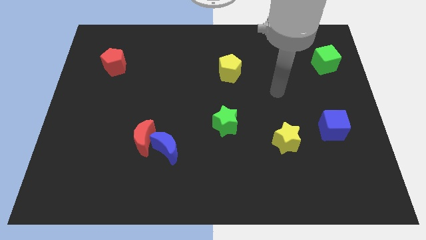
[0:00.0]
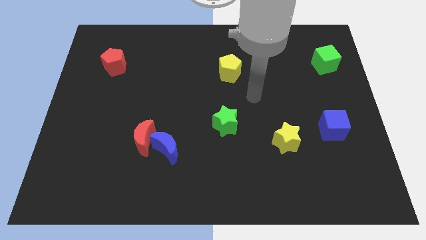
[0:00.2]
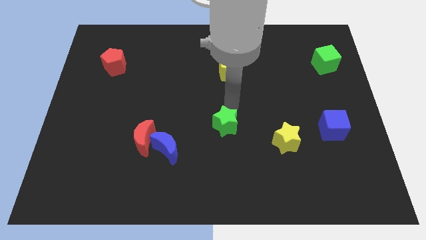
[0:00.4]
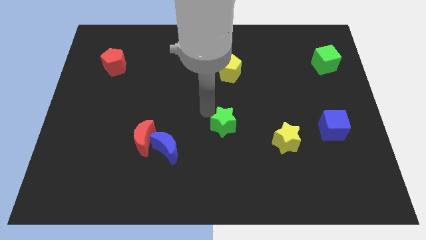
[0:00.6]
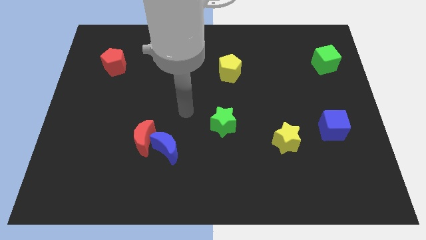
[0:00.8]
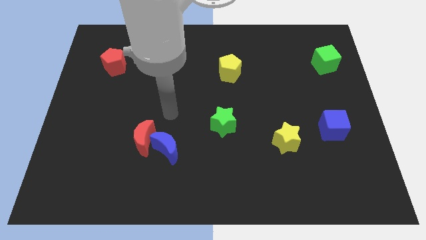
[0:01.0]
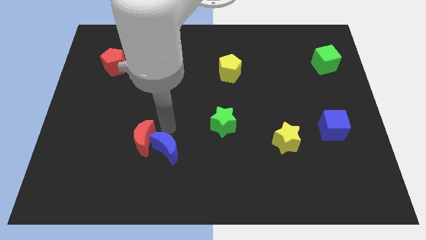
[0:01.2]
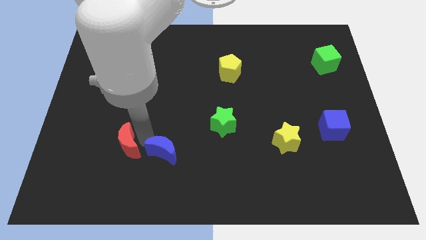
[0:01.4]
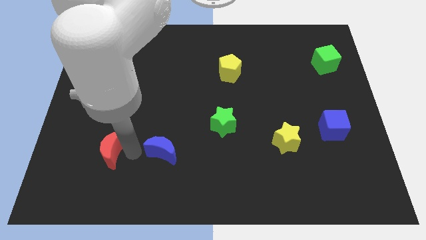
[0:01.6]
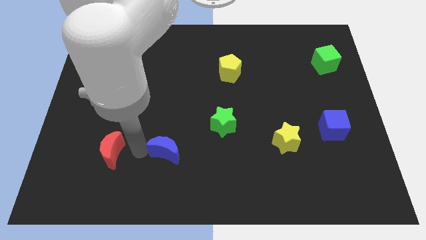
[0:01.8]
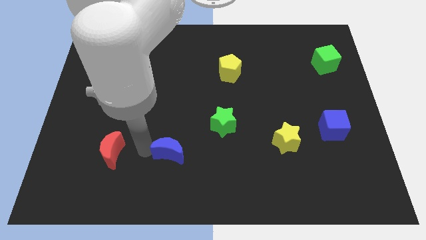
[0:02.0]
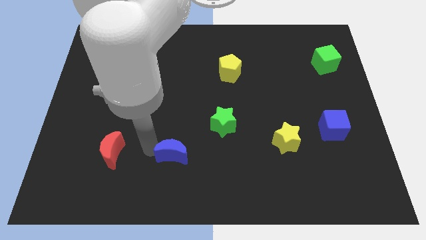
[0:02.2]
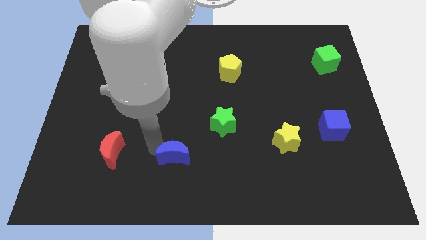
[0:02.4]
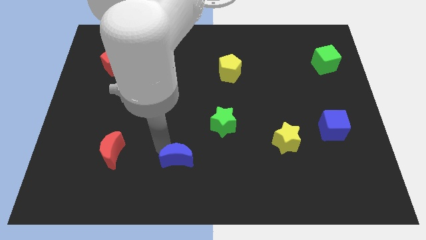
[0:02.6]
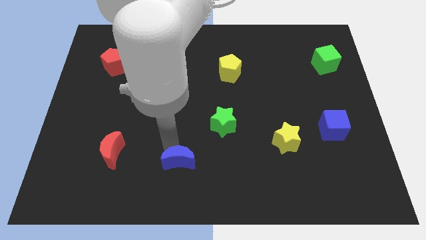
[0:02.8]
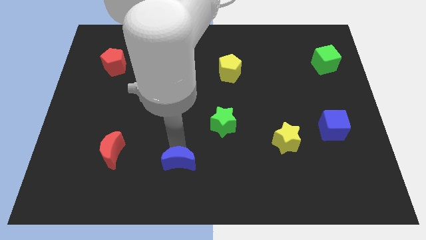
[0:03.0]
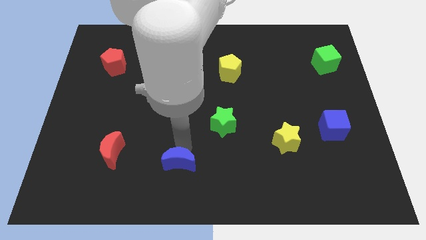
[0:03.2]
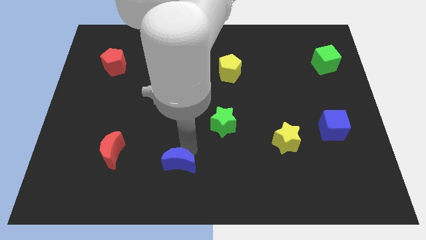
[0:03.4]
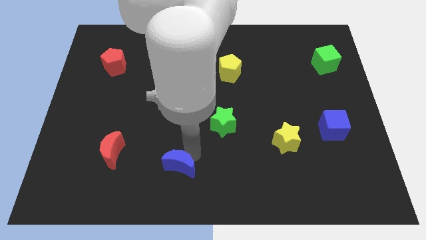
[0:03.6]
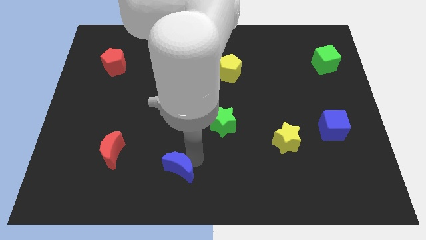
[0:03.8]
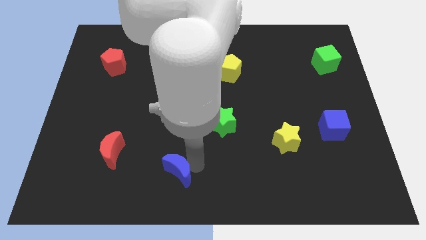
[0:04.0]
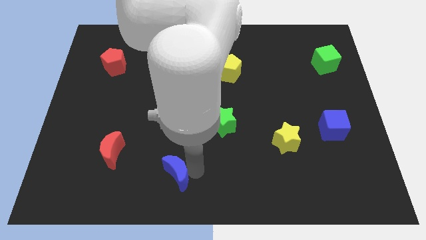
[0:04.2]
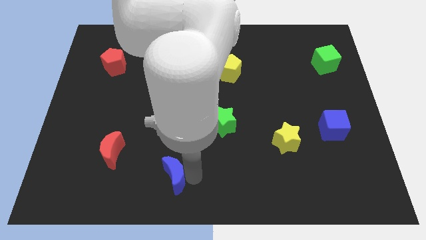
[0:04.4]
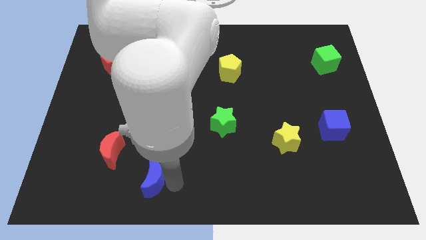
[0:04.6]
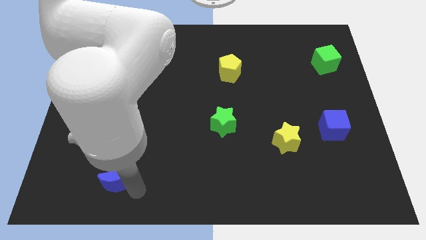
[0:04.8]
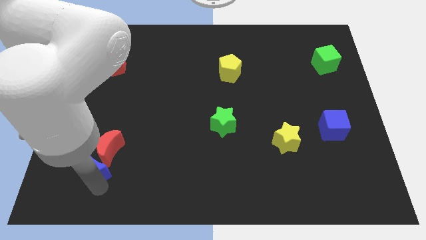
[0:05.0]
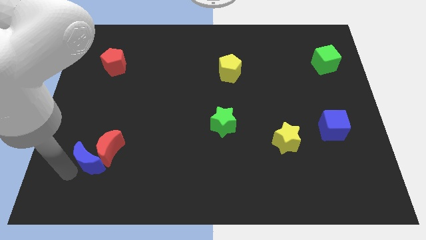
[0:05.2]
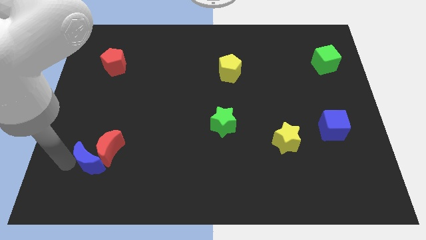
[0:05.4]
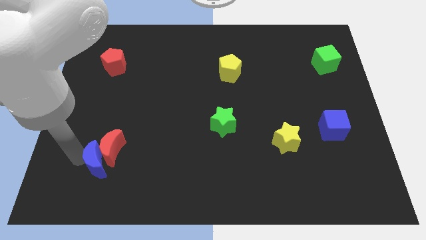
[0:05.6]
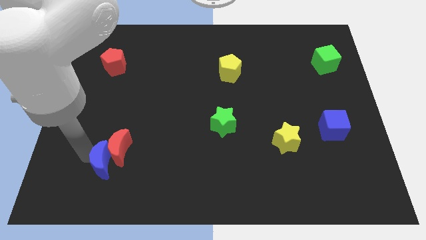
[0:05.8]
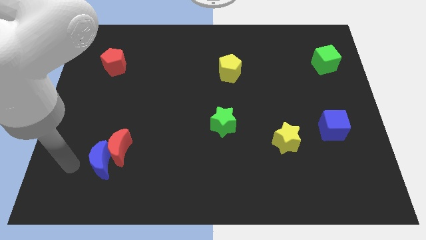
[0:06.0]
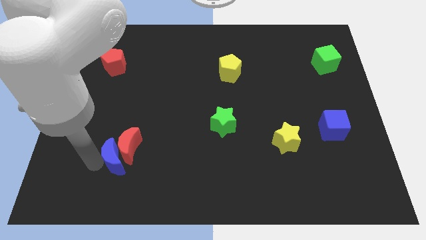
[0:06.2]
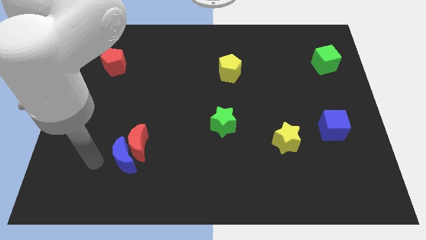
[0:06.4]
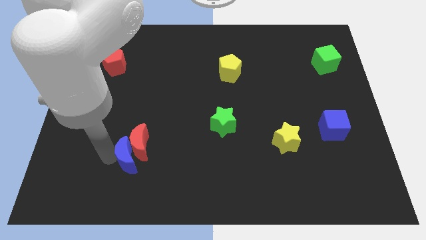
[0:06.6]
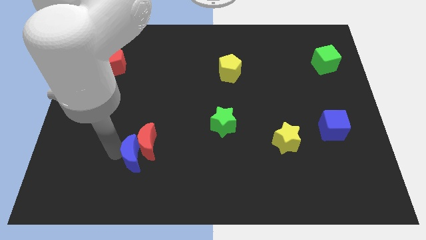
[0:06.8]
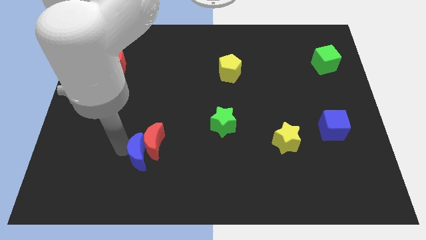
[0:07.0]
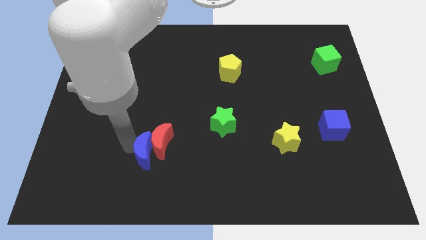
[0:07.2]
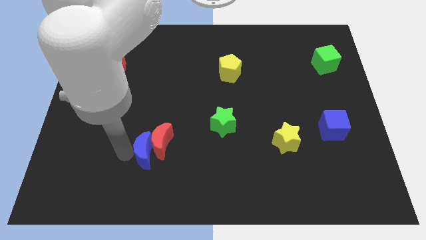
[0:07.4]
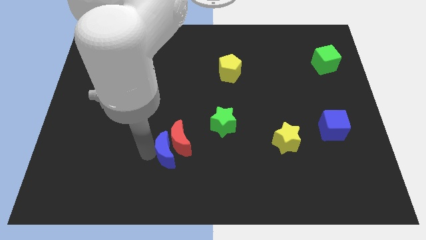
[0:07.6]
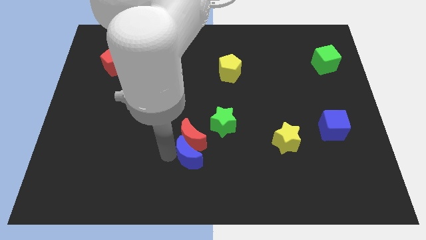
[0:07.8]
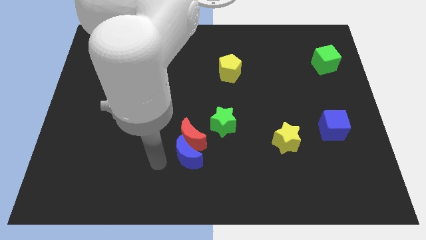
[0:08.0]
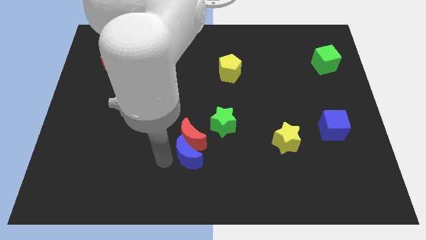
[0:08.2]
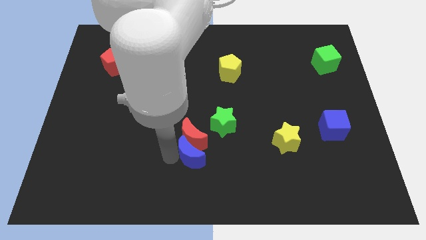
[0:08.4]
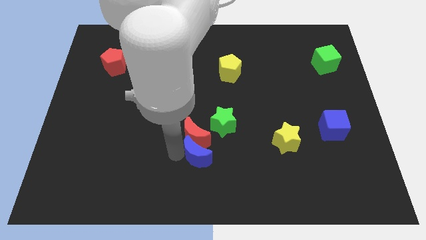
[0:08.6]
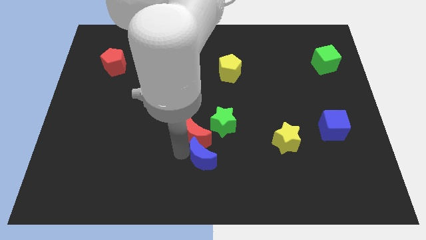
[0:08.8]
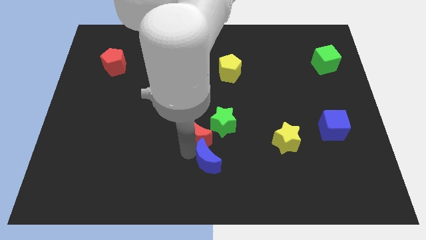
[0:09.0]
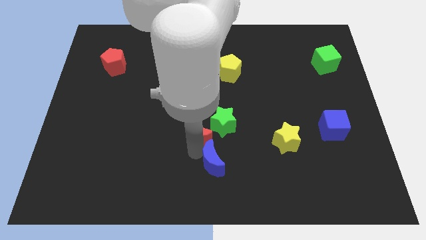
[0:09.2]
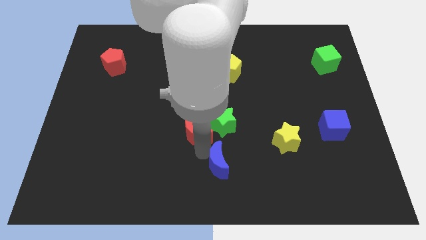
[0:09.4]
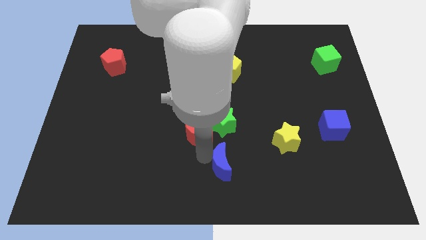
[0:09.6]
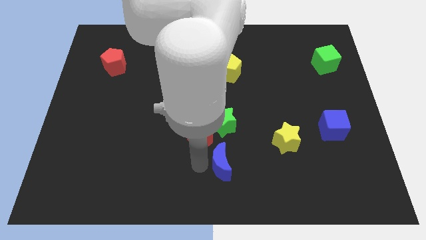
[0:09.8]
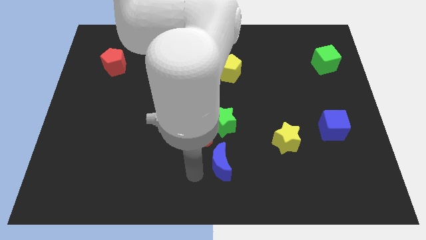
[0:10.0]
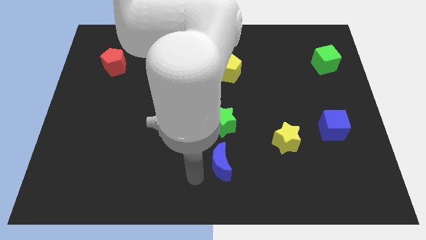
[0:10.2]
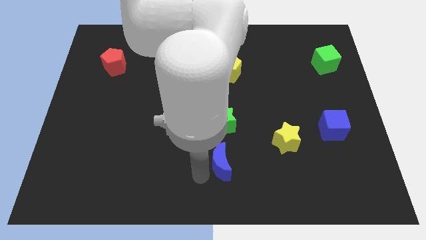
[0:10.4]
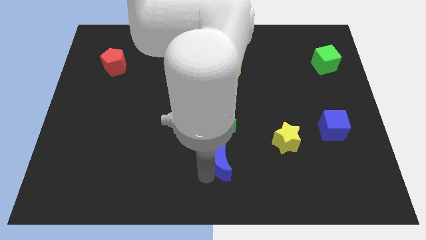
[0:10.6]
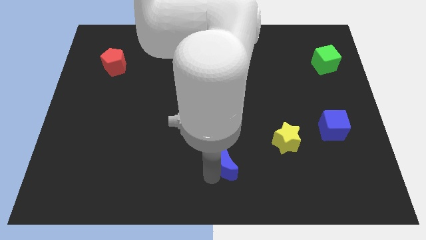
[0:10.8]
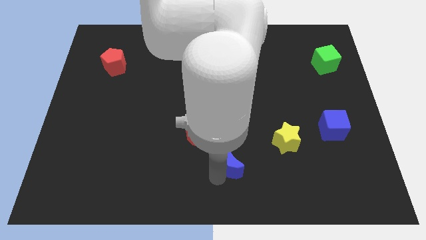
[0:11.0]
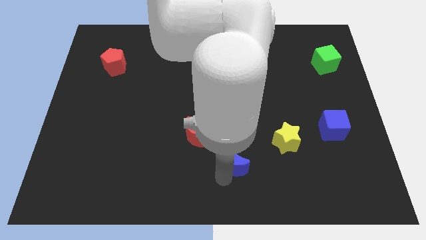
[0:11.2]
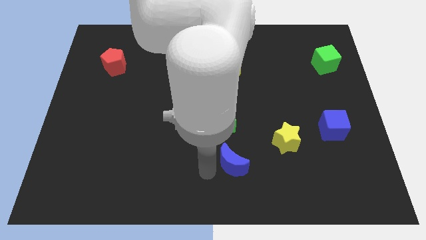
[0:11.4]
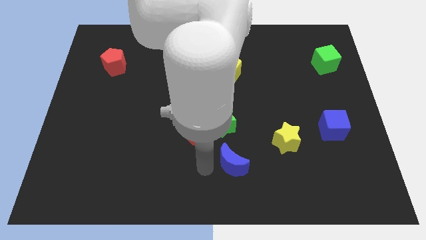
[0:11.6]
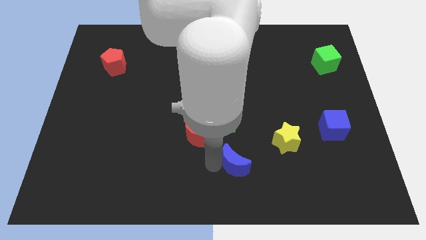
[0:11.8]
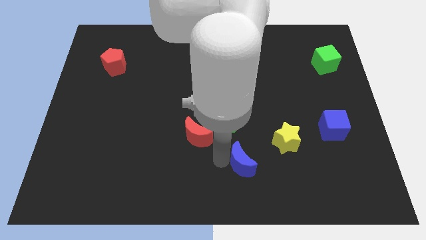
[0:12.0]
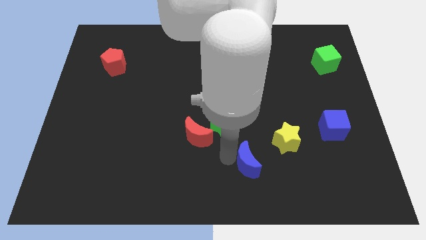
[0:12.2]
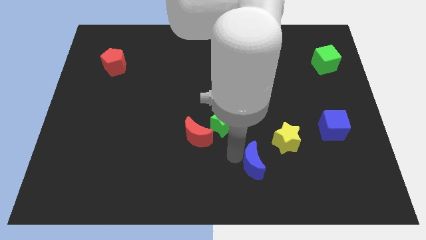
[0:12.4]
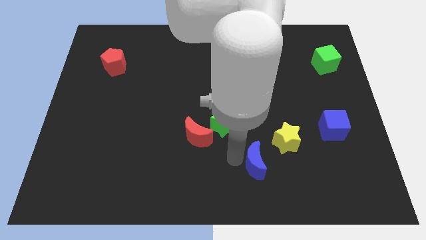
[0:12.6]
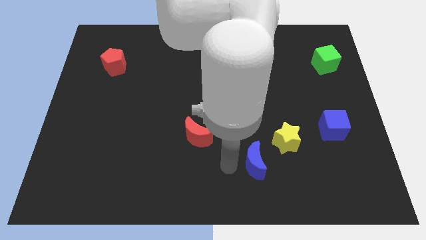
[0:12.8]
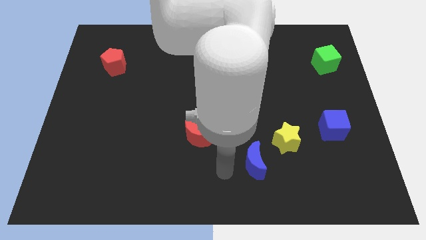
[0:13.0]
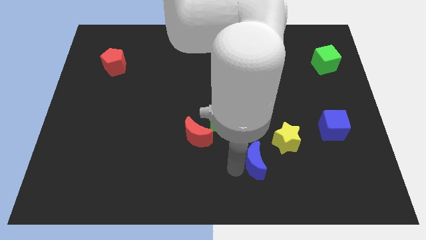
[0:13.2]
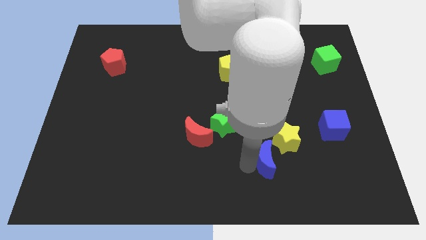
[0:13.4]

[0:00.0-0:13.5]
push the blue moon to the right

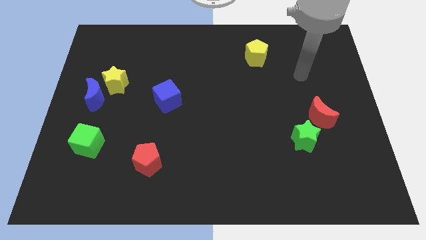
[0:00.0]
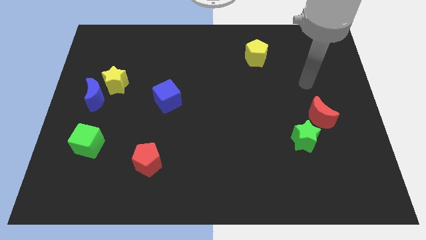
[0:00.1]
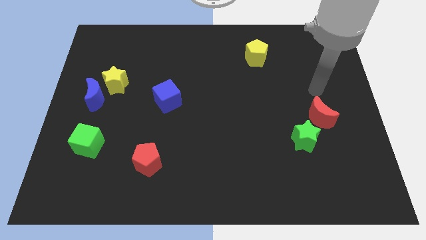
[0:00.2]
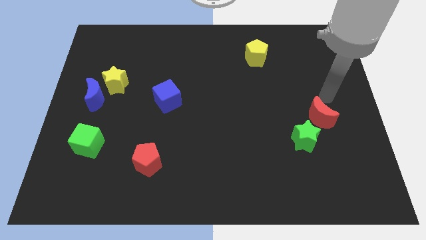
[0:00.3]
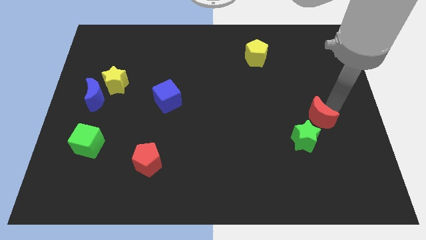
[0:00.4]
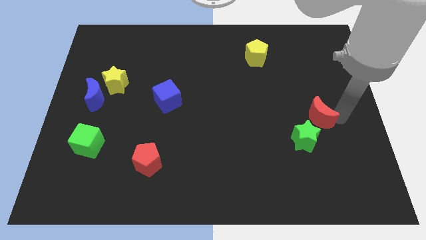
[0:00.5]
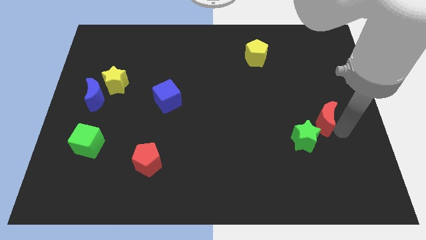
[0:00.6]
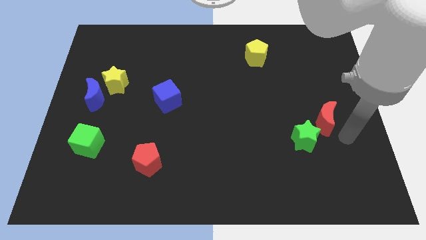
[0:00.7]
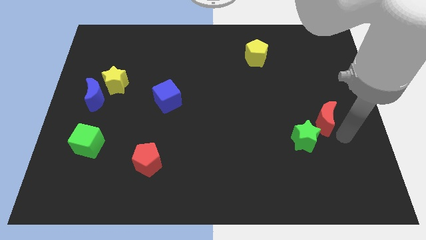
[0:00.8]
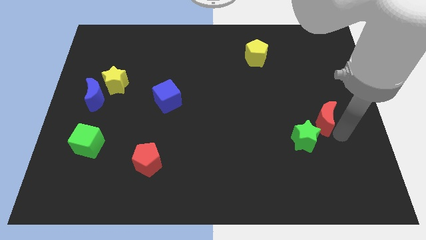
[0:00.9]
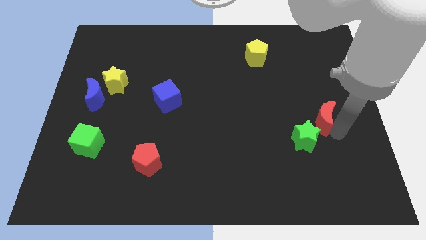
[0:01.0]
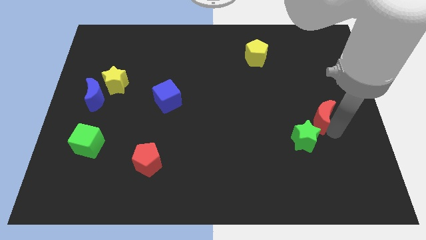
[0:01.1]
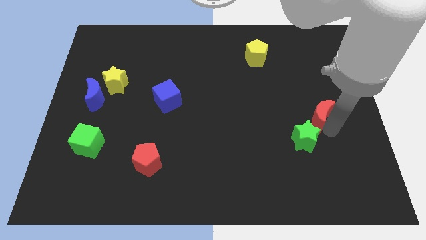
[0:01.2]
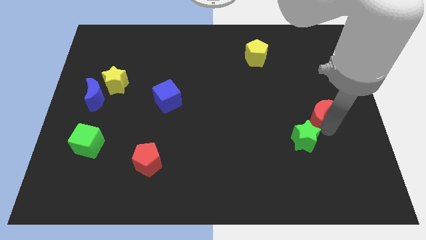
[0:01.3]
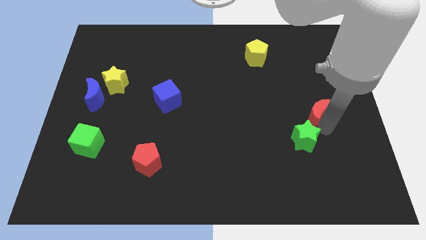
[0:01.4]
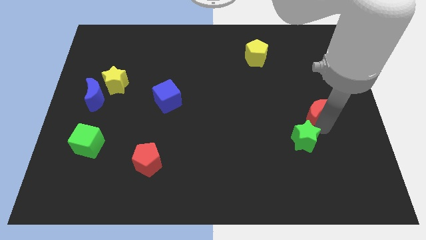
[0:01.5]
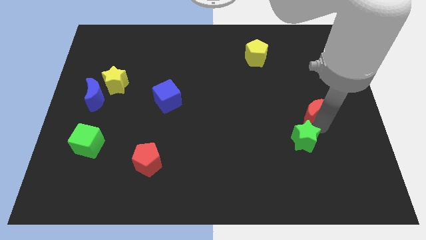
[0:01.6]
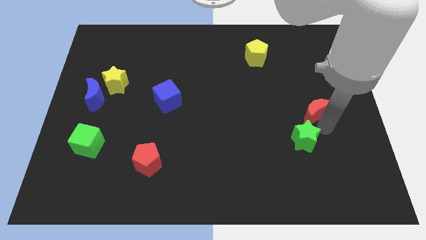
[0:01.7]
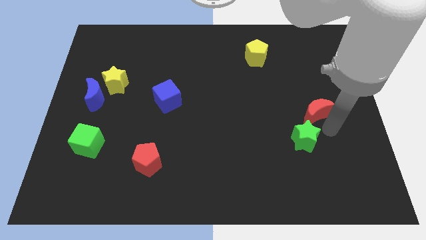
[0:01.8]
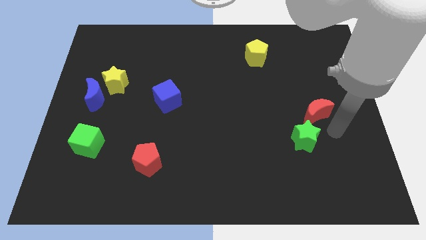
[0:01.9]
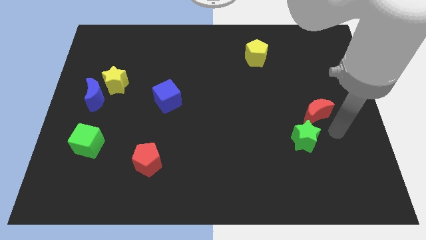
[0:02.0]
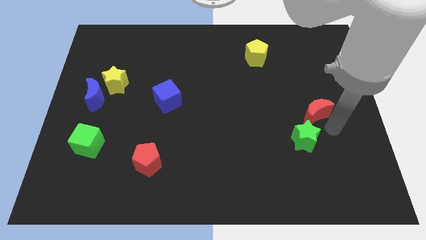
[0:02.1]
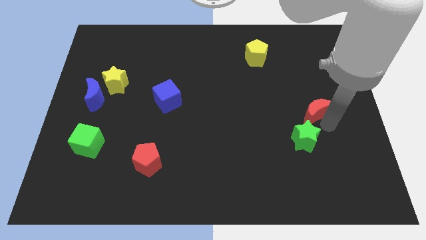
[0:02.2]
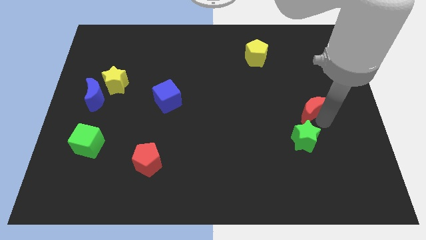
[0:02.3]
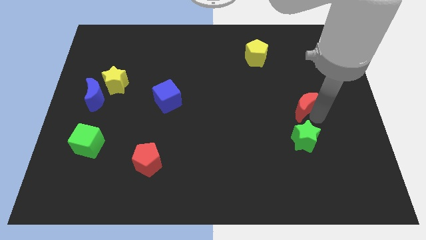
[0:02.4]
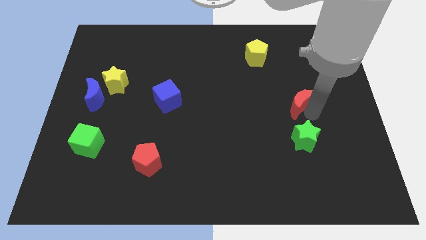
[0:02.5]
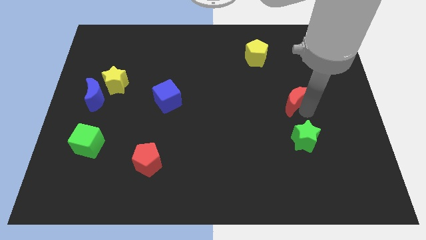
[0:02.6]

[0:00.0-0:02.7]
move the red moon up and to the left a little bit
